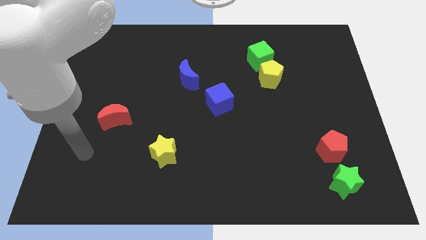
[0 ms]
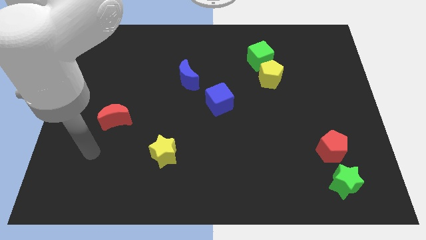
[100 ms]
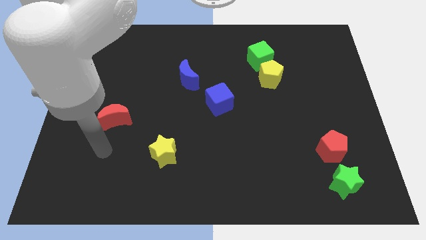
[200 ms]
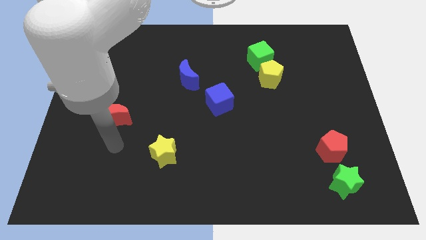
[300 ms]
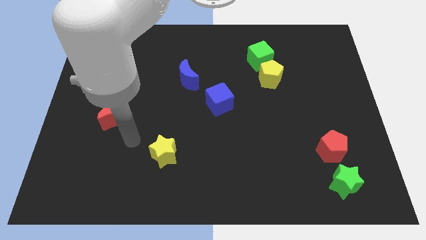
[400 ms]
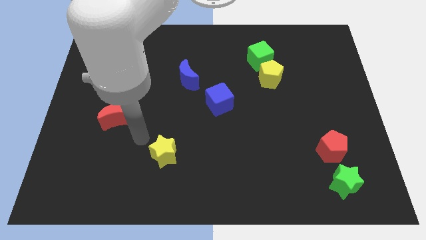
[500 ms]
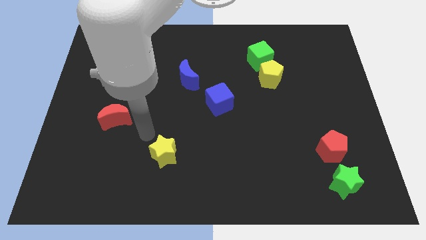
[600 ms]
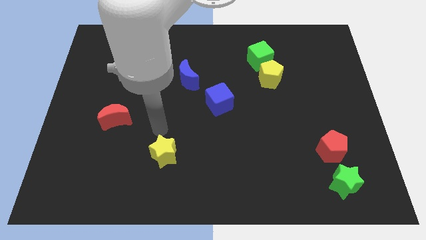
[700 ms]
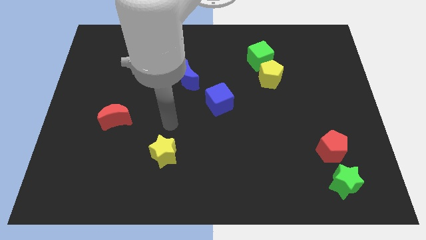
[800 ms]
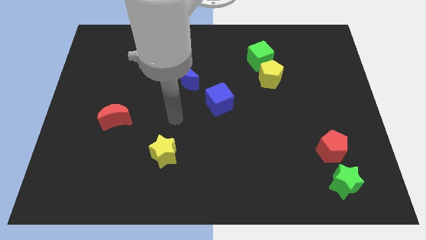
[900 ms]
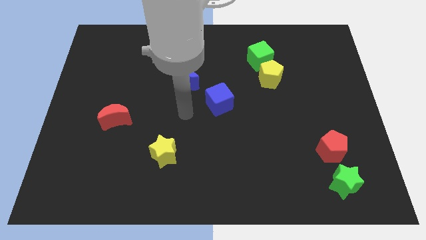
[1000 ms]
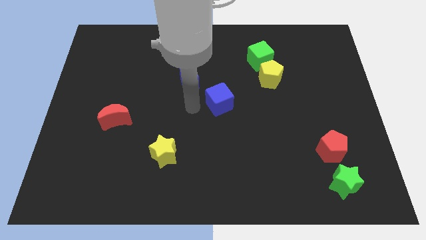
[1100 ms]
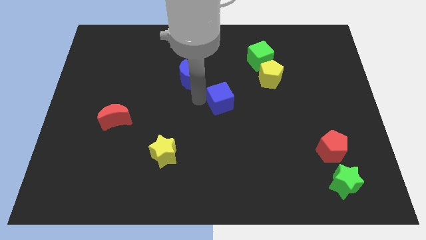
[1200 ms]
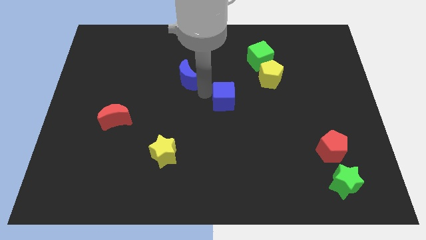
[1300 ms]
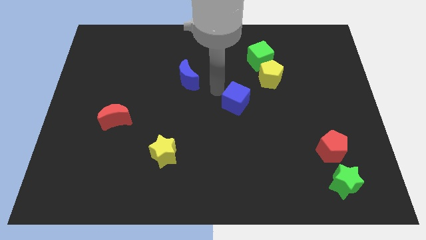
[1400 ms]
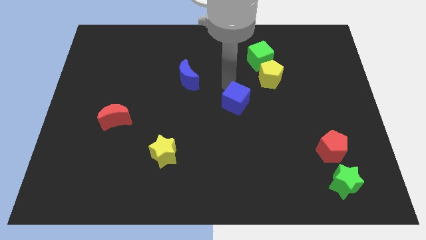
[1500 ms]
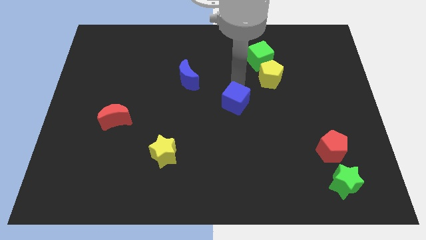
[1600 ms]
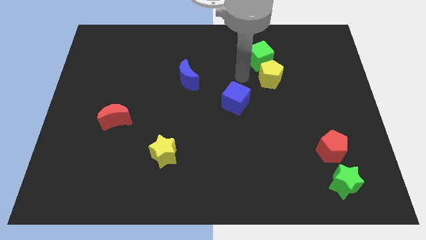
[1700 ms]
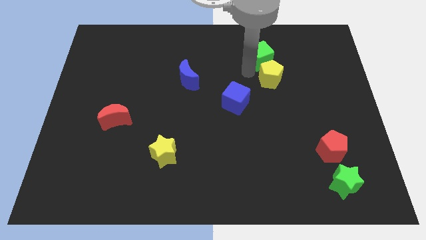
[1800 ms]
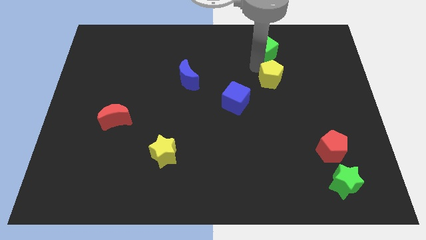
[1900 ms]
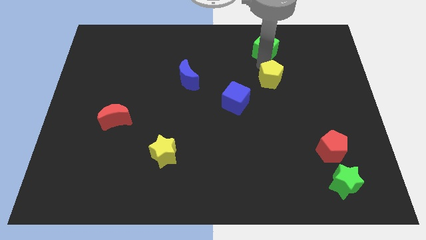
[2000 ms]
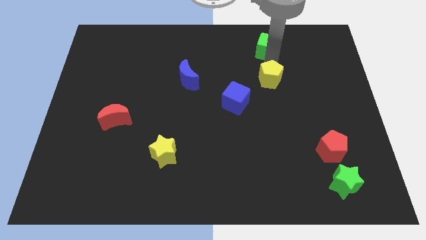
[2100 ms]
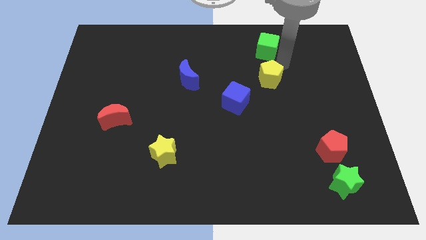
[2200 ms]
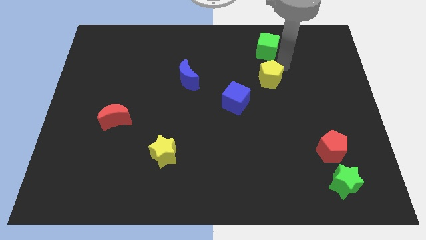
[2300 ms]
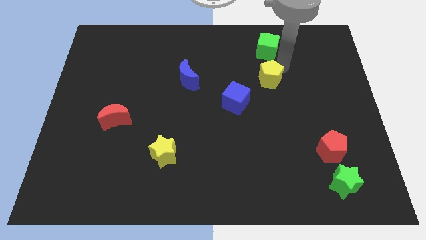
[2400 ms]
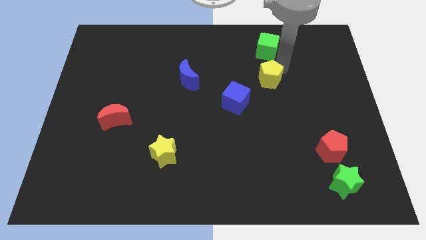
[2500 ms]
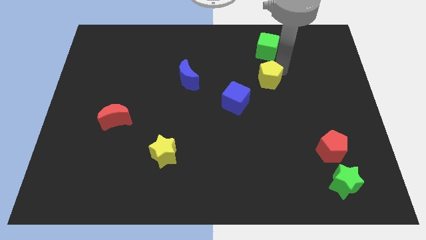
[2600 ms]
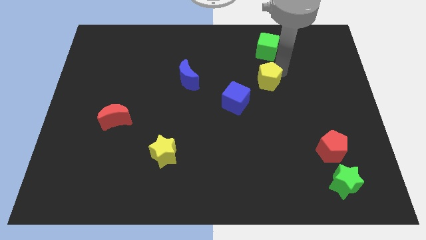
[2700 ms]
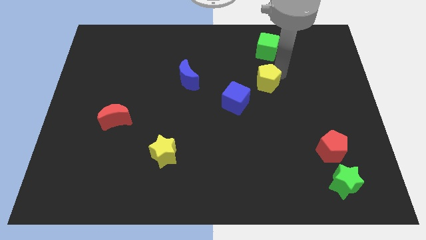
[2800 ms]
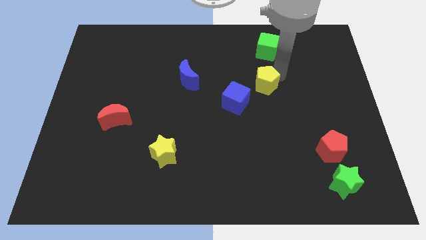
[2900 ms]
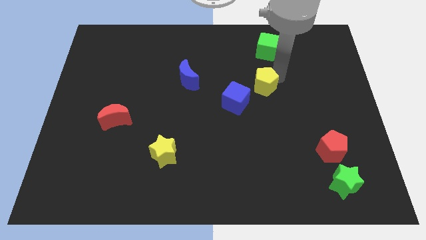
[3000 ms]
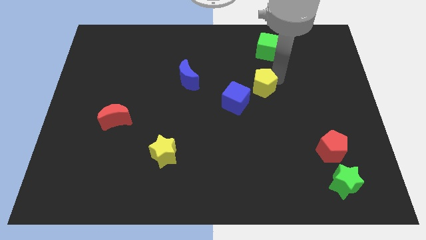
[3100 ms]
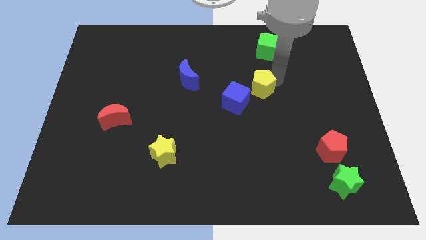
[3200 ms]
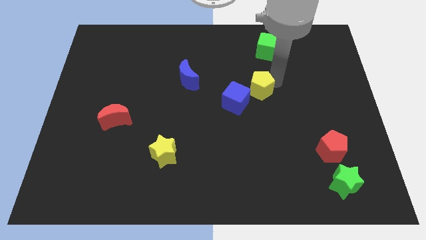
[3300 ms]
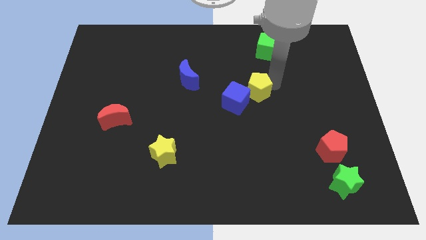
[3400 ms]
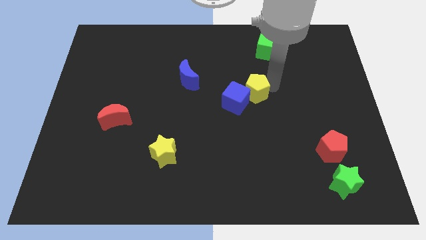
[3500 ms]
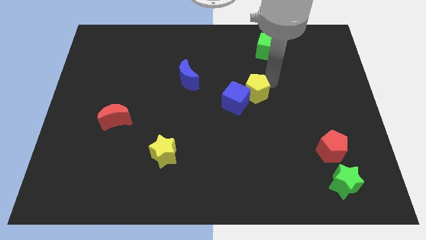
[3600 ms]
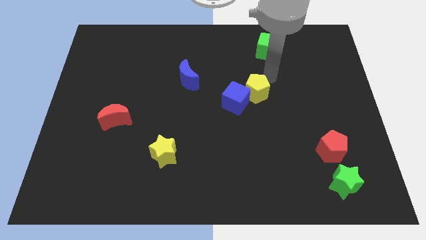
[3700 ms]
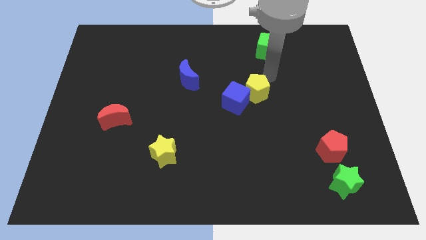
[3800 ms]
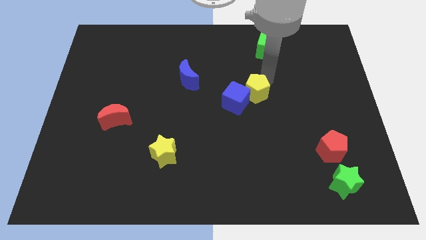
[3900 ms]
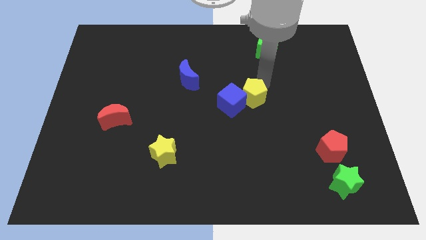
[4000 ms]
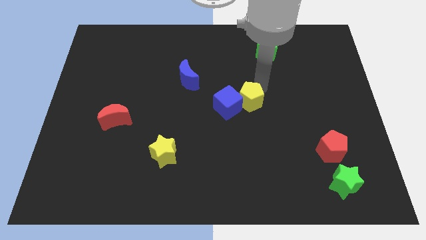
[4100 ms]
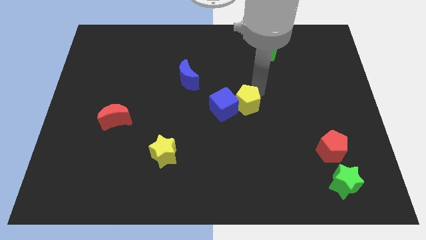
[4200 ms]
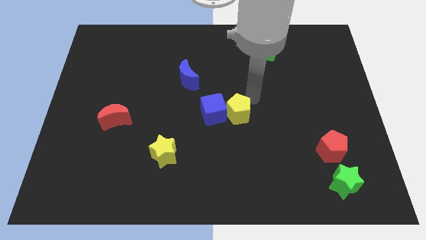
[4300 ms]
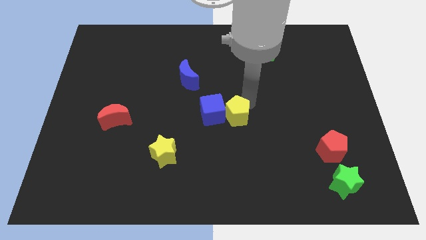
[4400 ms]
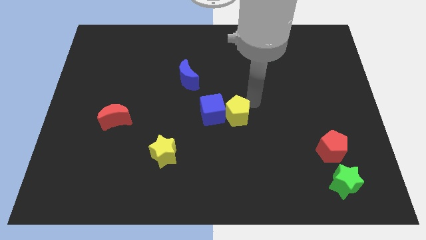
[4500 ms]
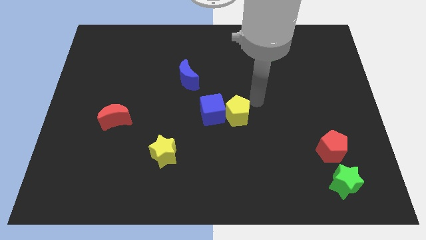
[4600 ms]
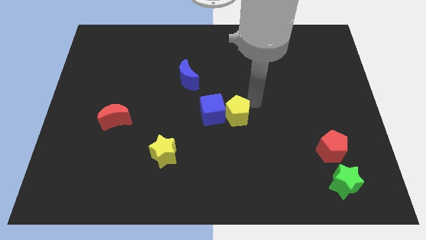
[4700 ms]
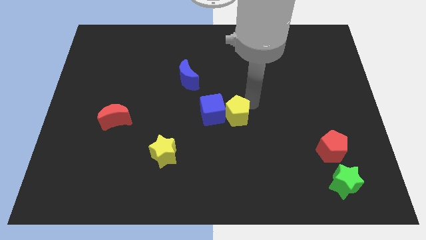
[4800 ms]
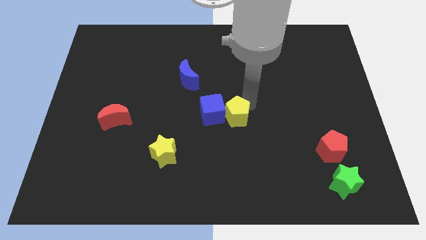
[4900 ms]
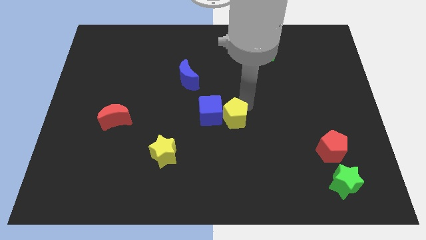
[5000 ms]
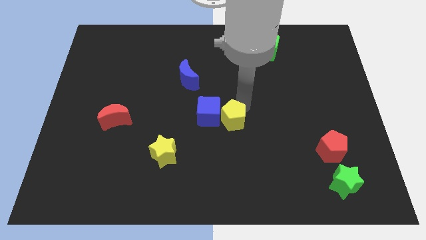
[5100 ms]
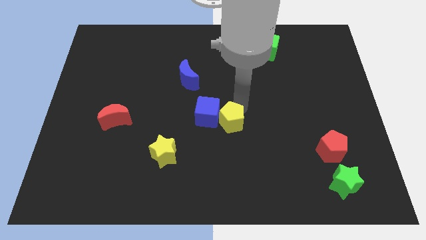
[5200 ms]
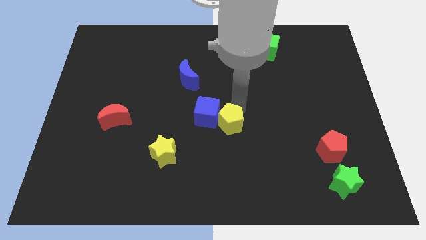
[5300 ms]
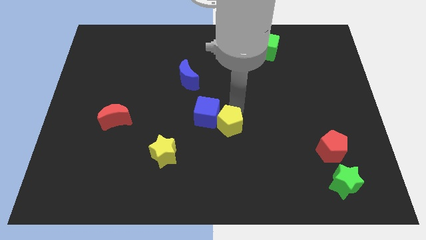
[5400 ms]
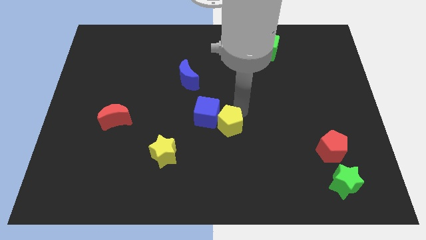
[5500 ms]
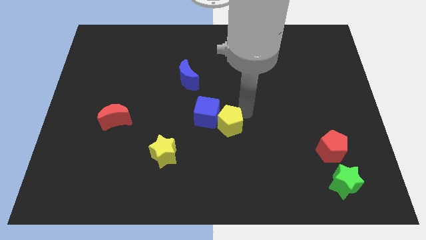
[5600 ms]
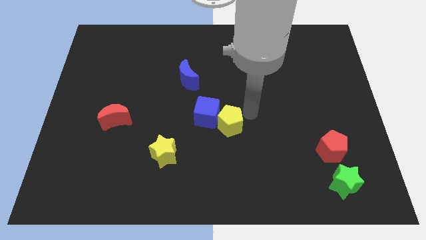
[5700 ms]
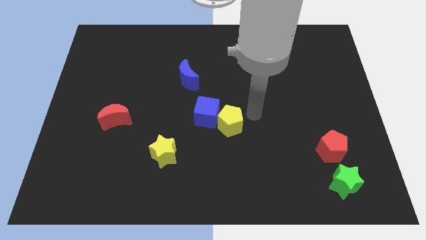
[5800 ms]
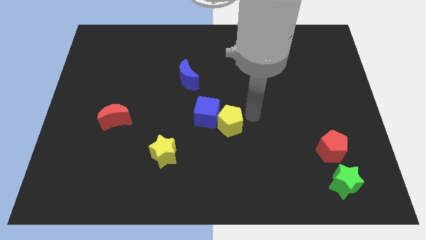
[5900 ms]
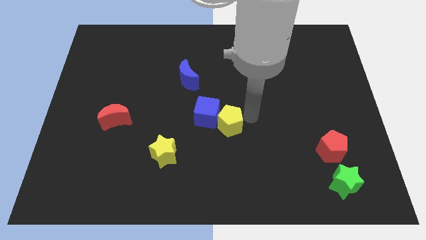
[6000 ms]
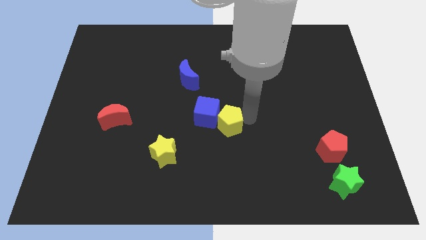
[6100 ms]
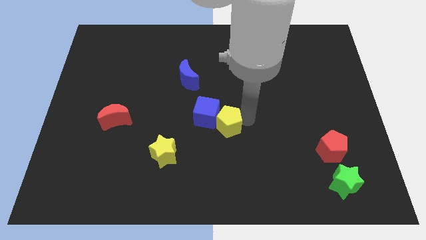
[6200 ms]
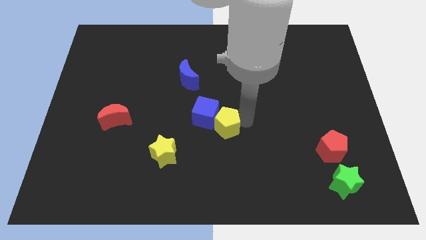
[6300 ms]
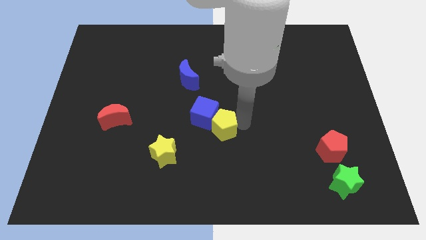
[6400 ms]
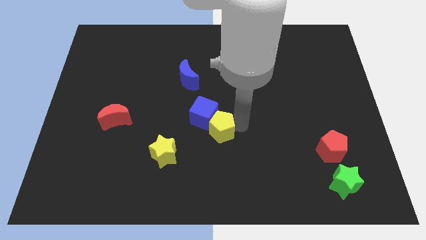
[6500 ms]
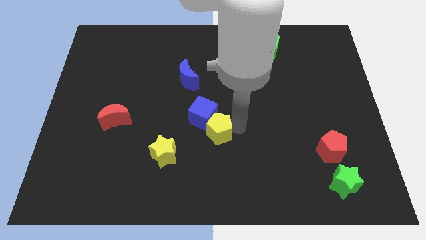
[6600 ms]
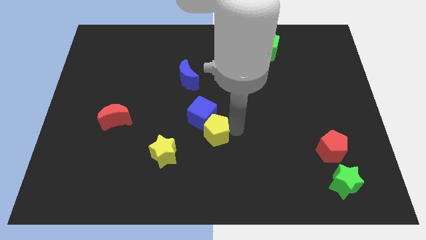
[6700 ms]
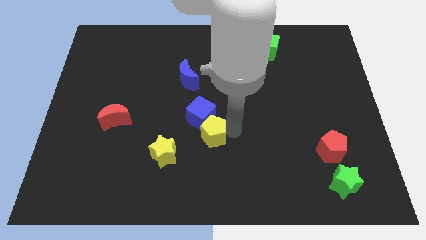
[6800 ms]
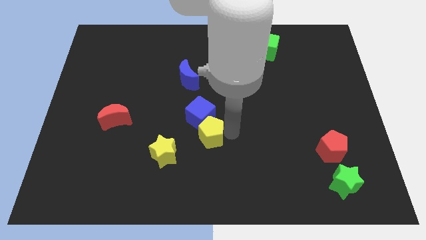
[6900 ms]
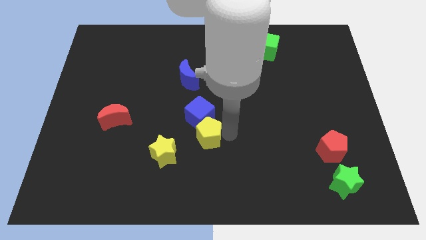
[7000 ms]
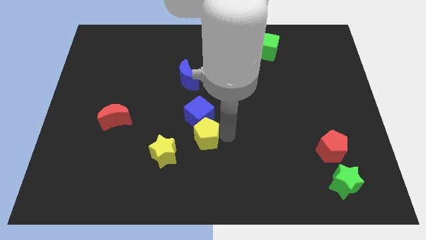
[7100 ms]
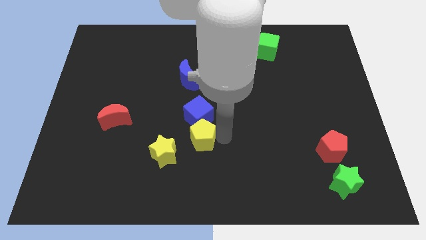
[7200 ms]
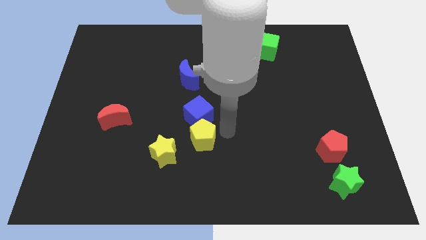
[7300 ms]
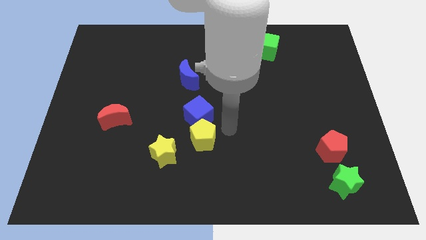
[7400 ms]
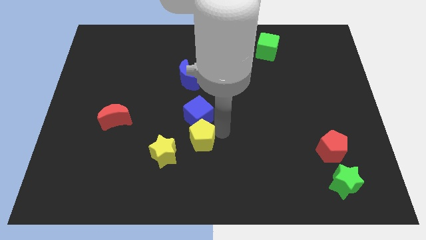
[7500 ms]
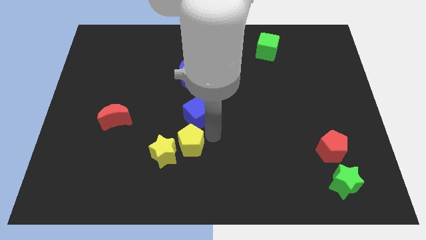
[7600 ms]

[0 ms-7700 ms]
put the yellow pentagon close to the yellow star
